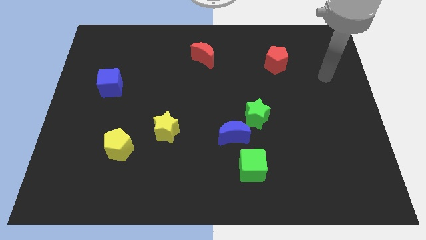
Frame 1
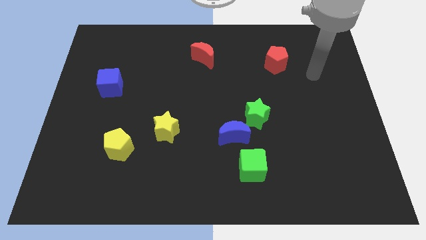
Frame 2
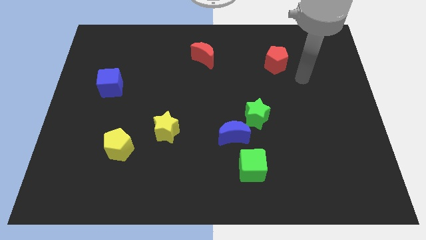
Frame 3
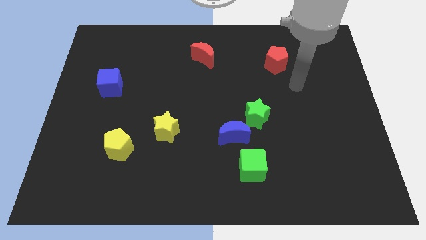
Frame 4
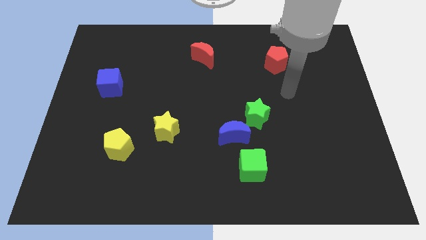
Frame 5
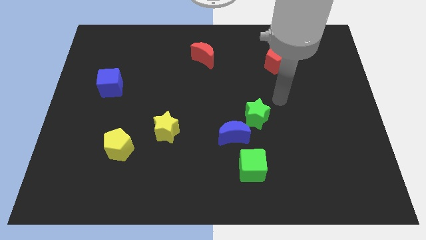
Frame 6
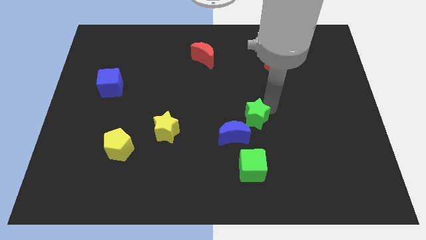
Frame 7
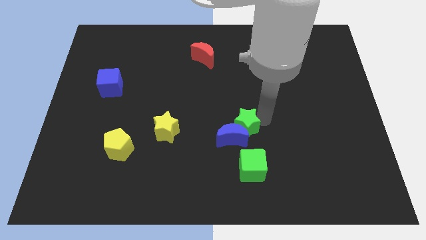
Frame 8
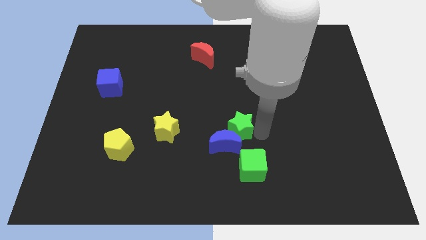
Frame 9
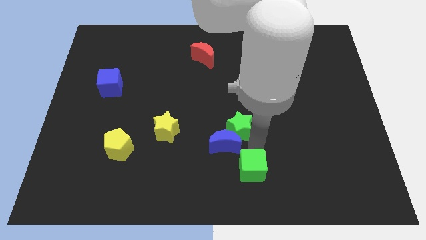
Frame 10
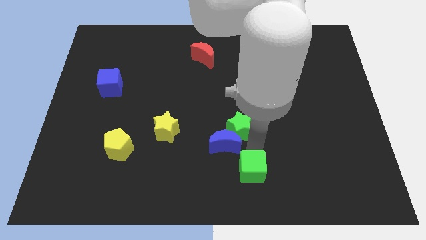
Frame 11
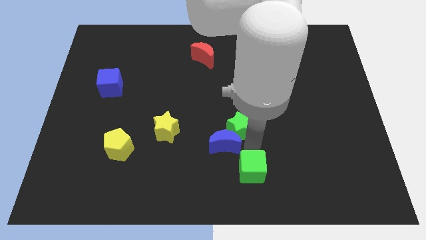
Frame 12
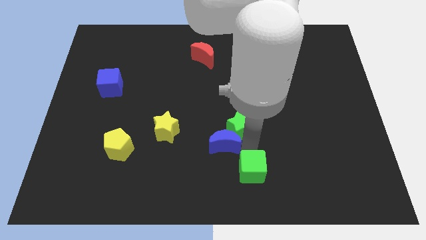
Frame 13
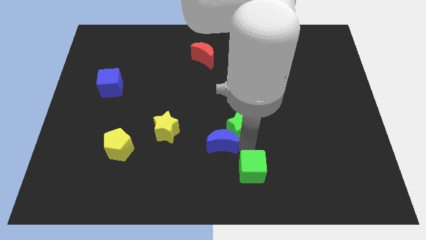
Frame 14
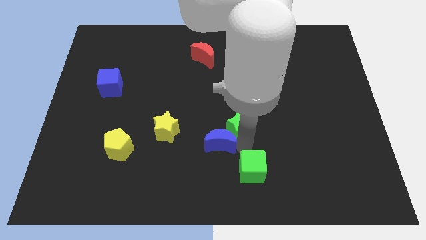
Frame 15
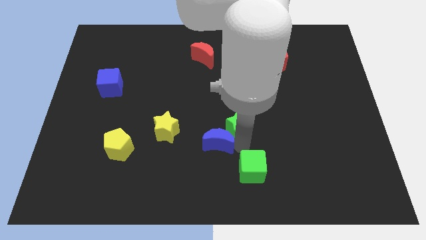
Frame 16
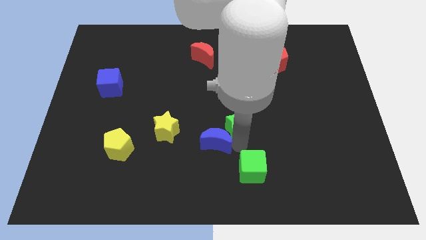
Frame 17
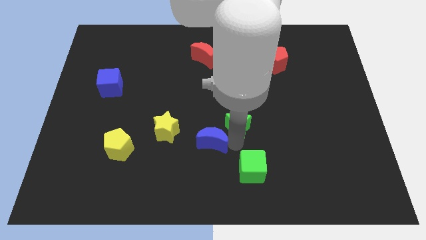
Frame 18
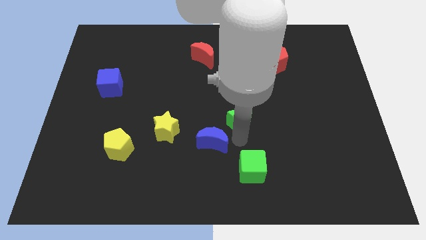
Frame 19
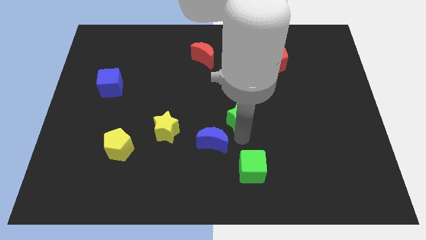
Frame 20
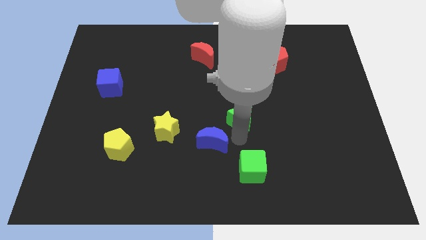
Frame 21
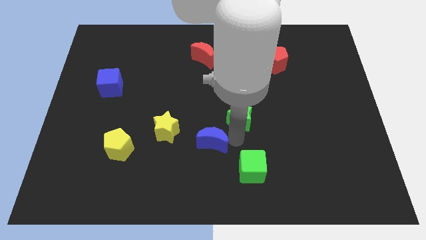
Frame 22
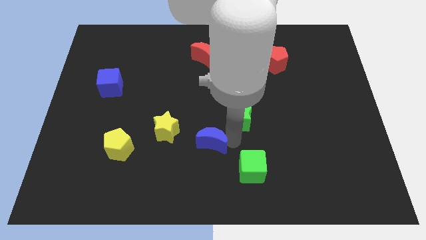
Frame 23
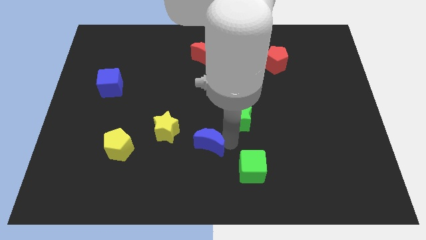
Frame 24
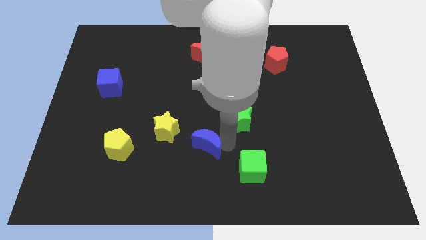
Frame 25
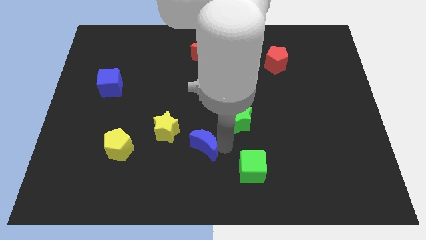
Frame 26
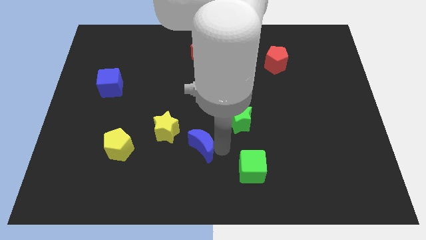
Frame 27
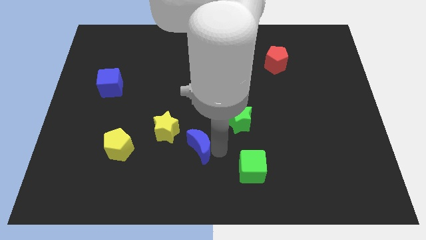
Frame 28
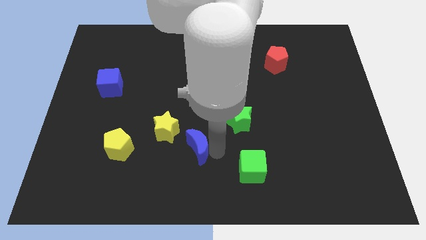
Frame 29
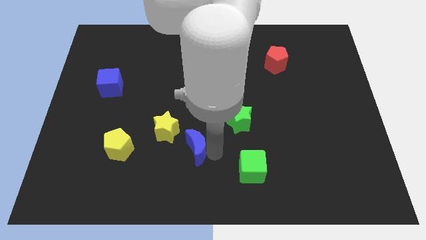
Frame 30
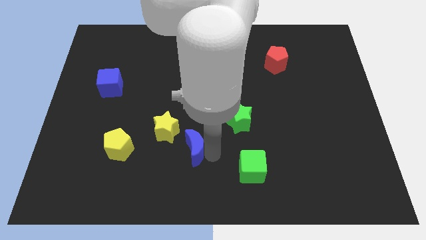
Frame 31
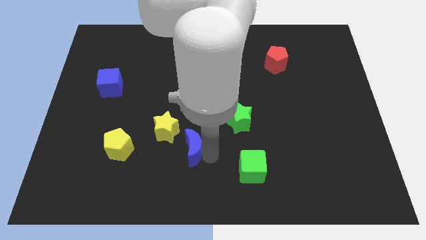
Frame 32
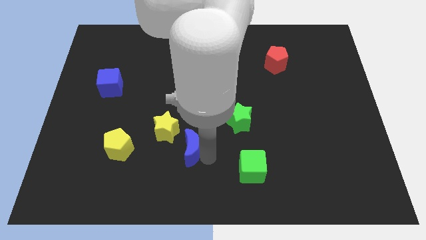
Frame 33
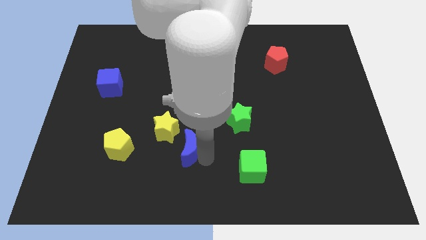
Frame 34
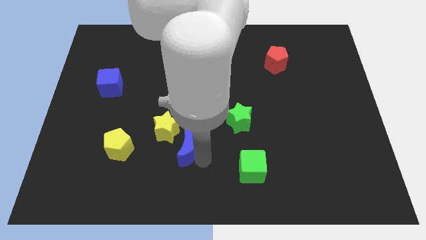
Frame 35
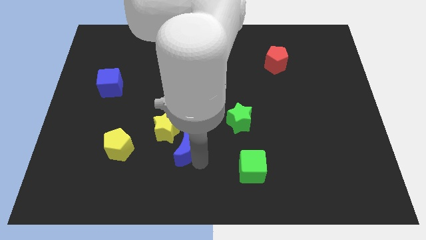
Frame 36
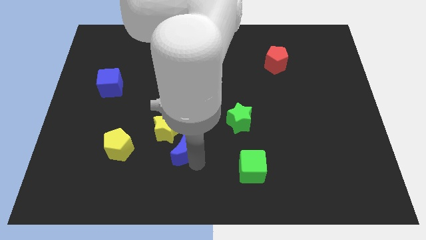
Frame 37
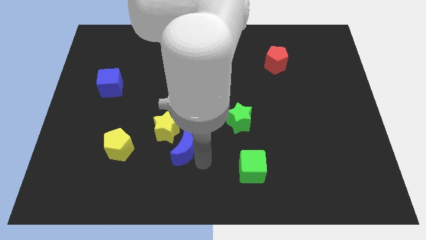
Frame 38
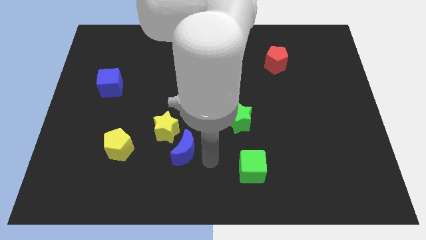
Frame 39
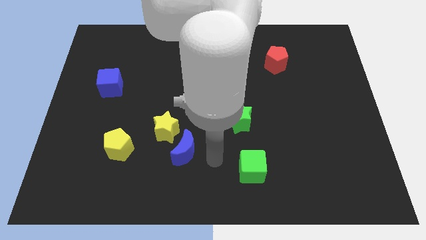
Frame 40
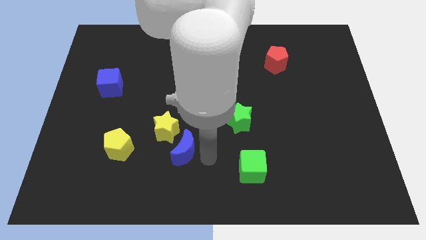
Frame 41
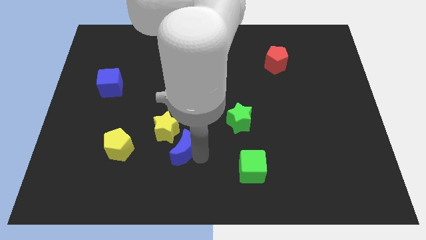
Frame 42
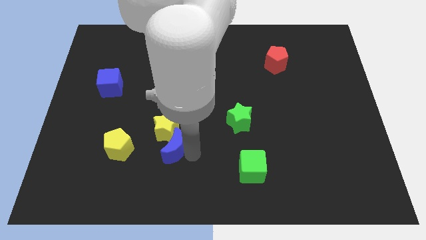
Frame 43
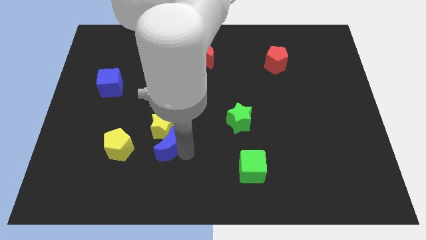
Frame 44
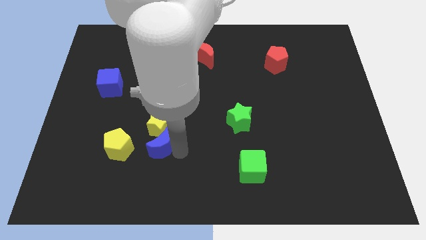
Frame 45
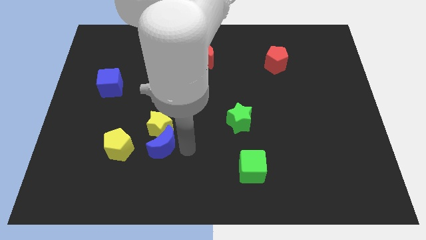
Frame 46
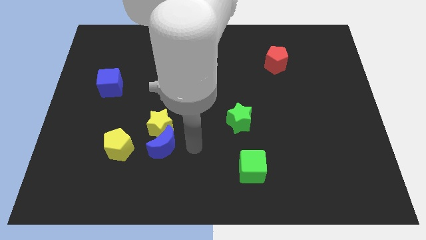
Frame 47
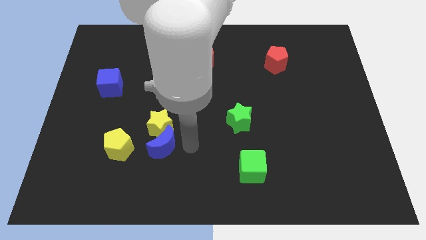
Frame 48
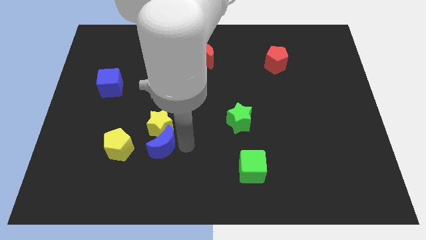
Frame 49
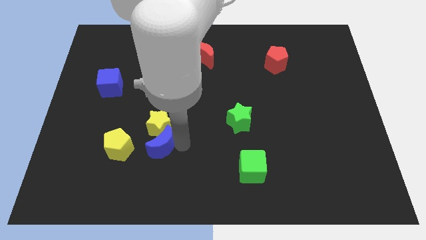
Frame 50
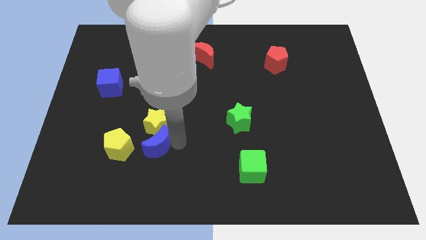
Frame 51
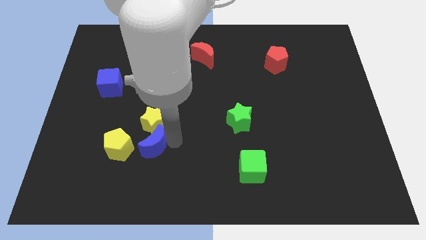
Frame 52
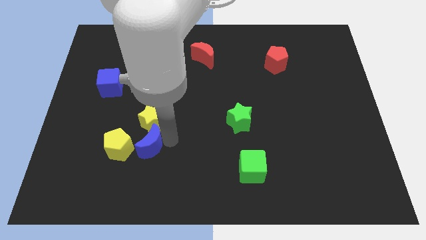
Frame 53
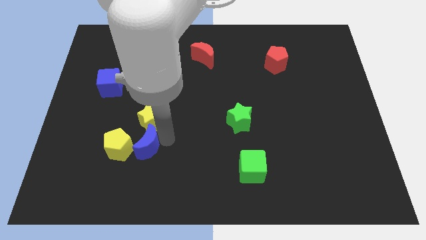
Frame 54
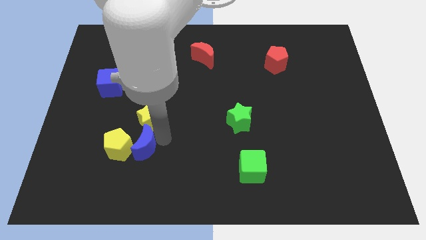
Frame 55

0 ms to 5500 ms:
push the blue moon close to the yellow pentagon

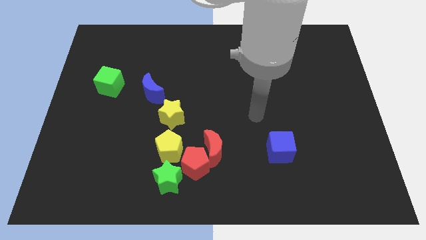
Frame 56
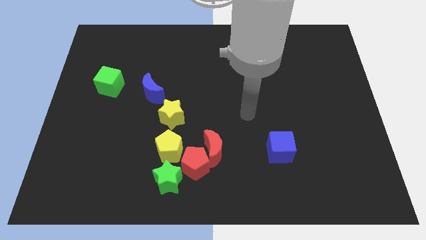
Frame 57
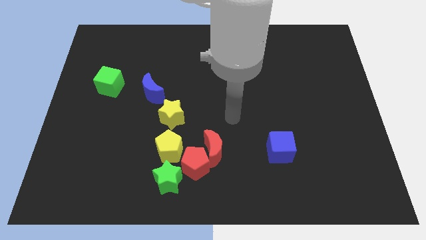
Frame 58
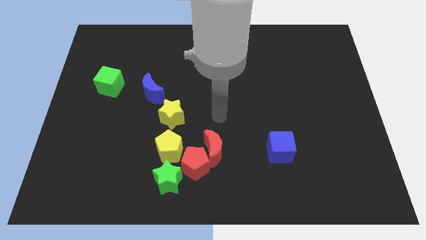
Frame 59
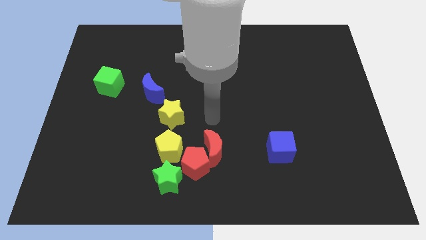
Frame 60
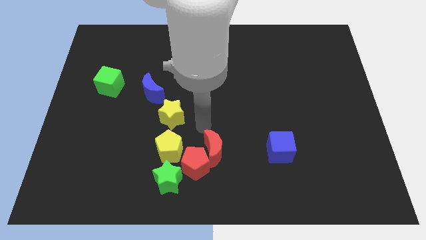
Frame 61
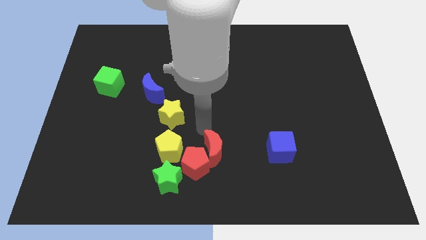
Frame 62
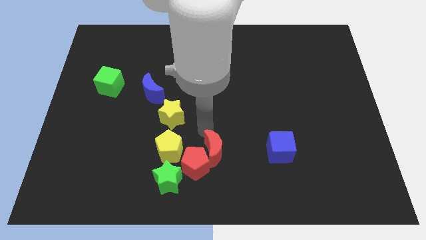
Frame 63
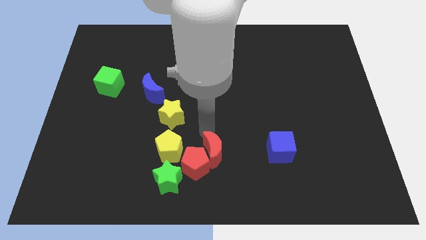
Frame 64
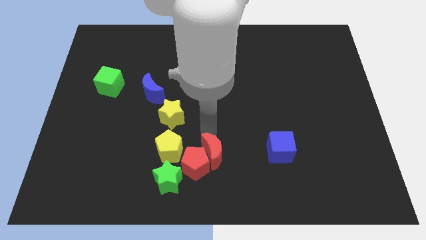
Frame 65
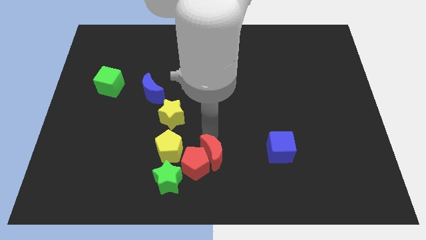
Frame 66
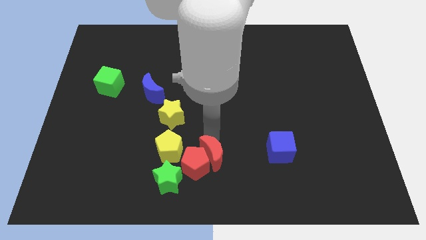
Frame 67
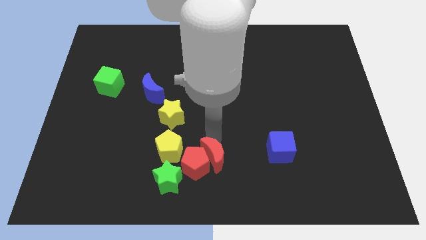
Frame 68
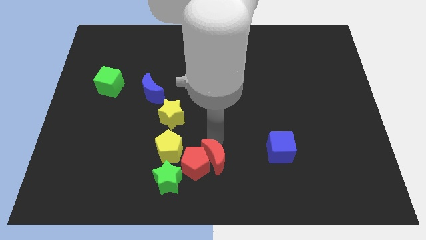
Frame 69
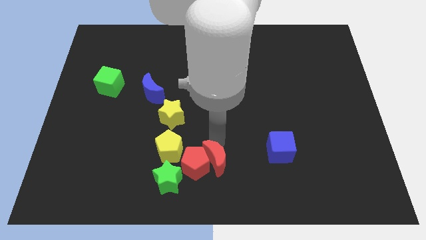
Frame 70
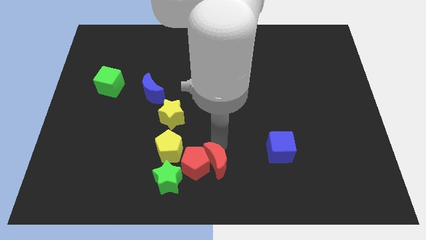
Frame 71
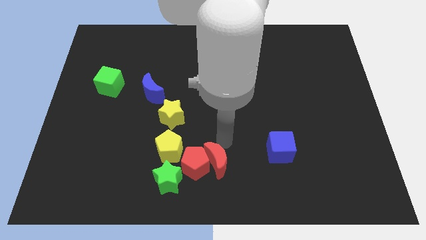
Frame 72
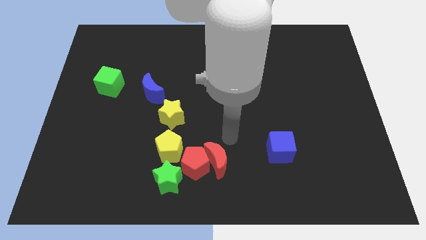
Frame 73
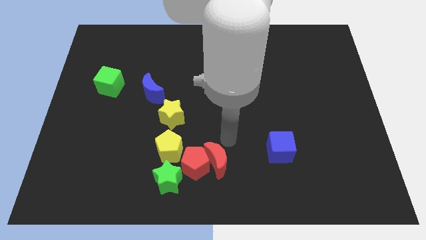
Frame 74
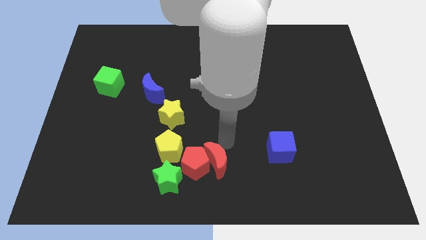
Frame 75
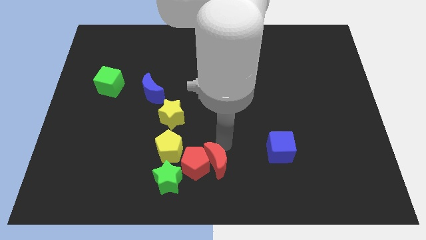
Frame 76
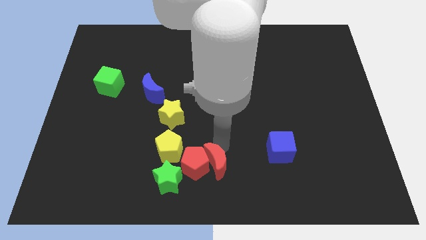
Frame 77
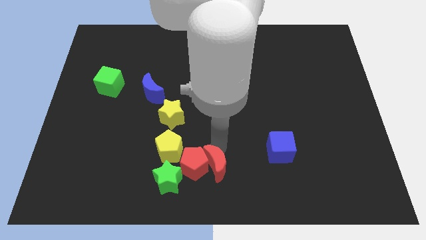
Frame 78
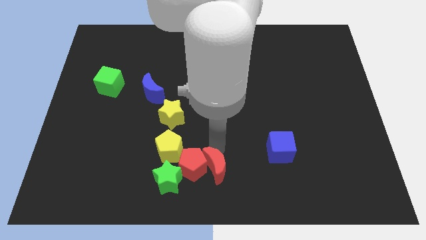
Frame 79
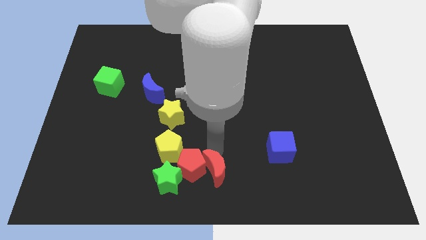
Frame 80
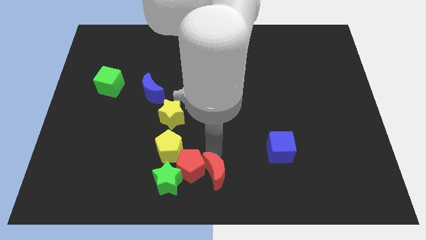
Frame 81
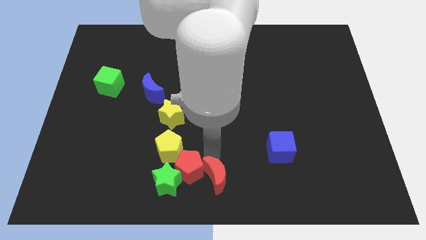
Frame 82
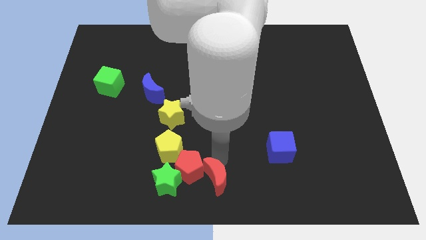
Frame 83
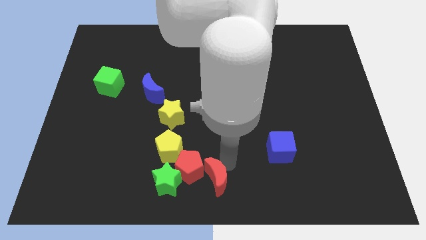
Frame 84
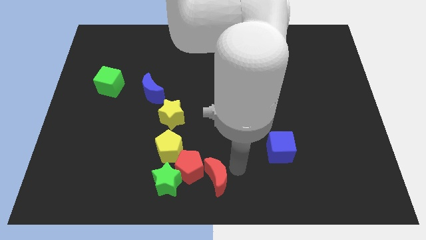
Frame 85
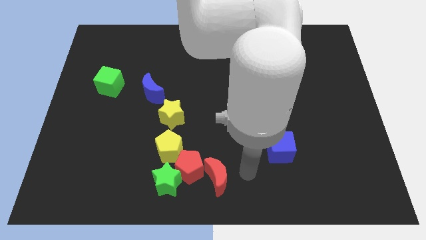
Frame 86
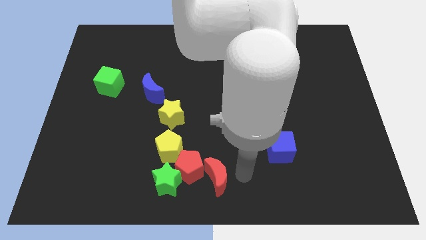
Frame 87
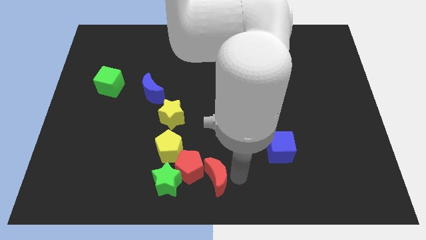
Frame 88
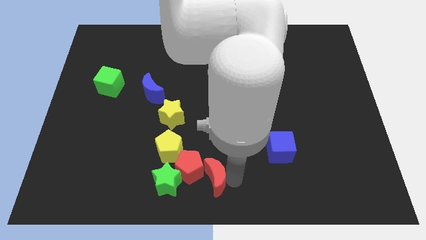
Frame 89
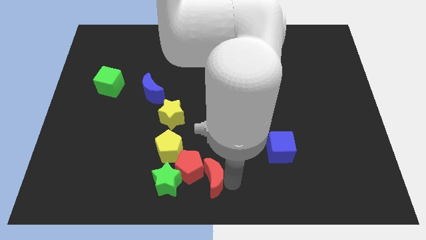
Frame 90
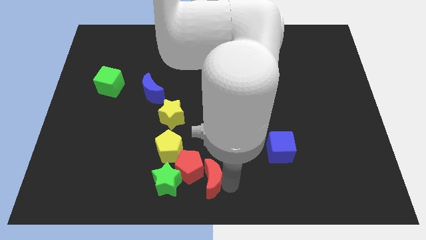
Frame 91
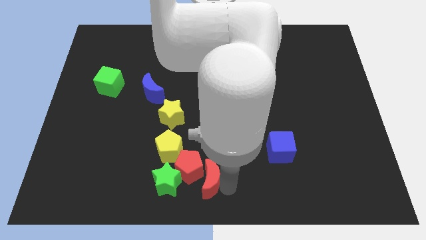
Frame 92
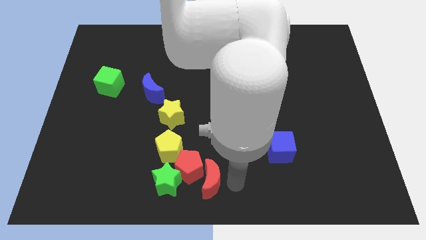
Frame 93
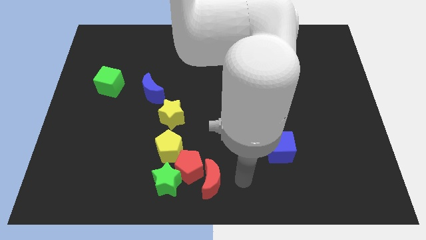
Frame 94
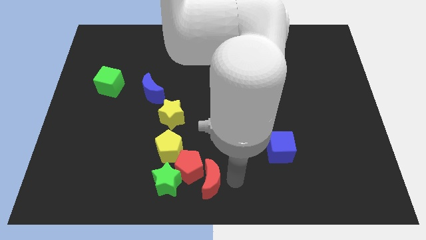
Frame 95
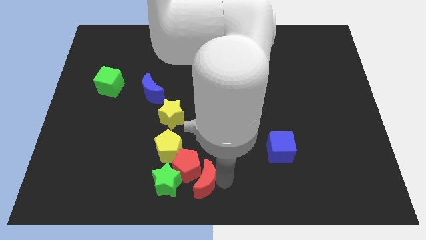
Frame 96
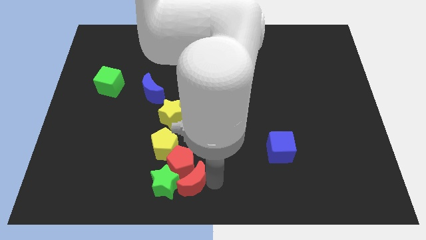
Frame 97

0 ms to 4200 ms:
move the red moon close to the green star
